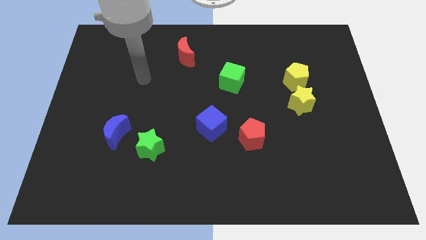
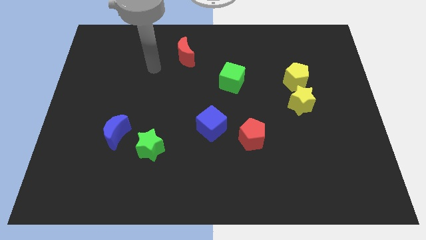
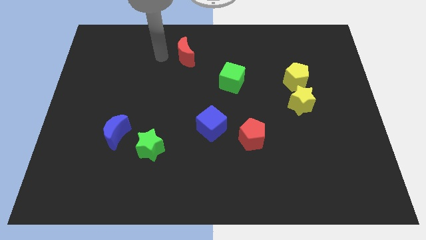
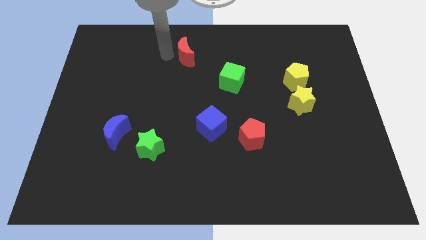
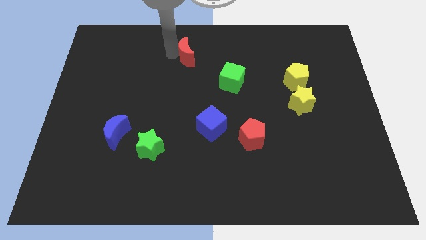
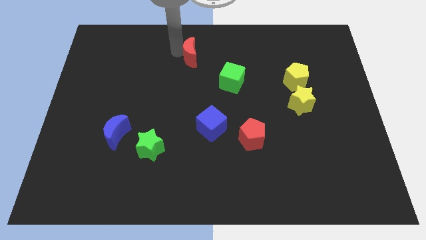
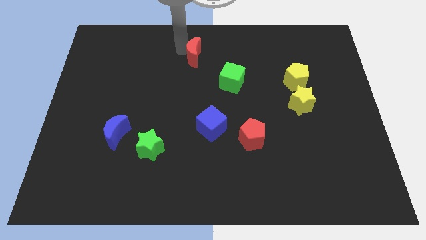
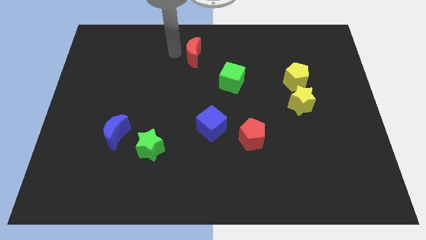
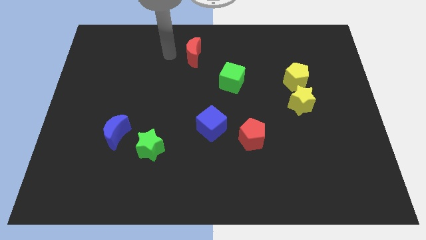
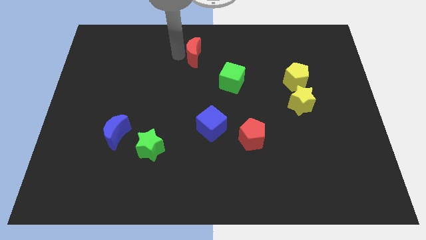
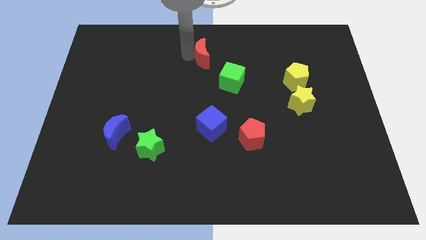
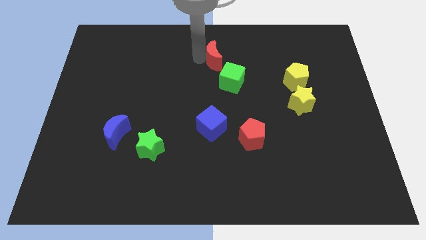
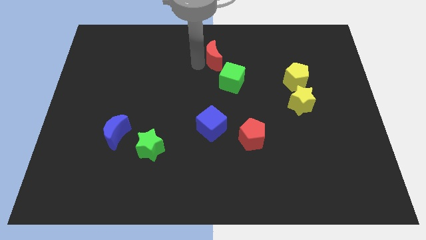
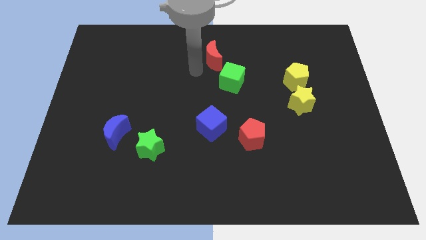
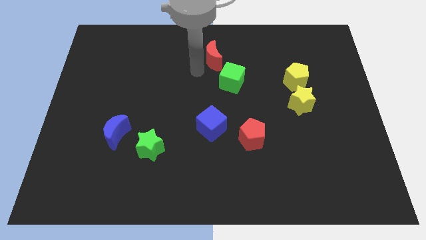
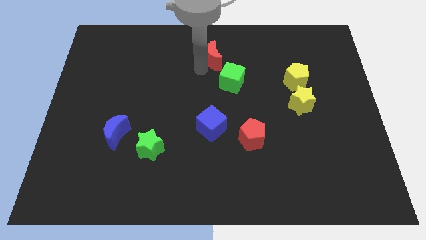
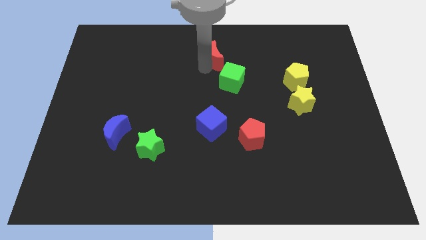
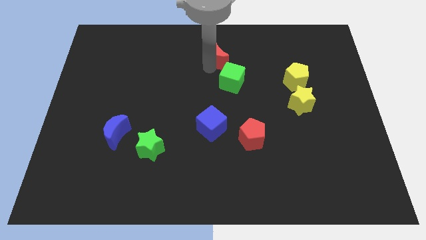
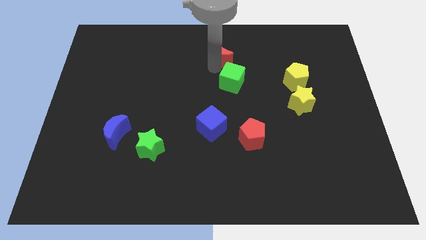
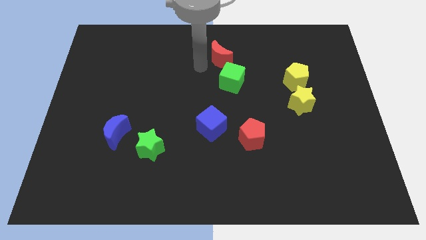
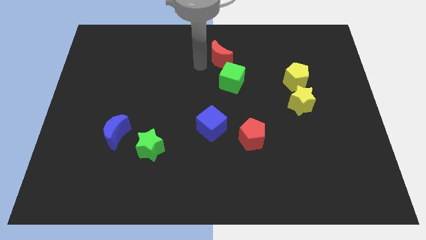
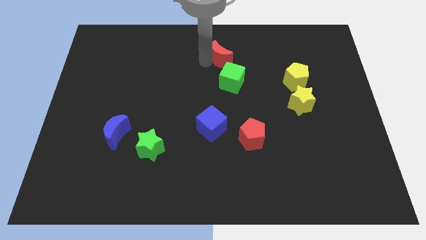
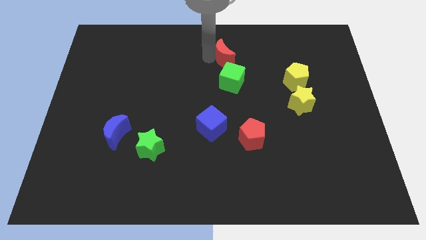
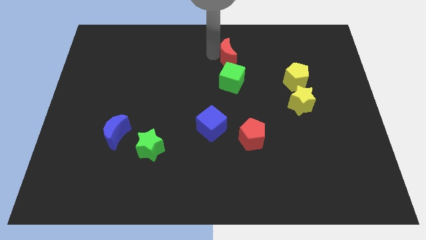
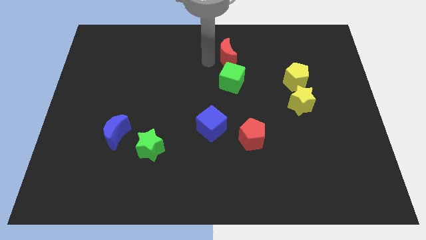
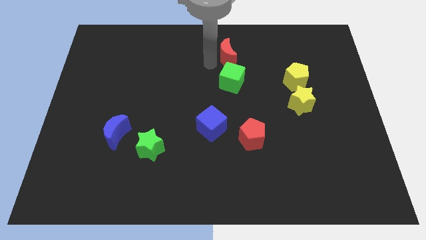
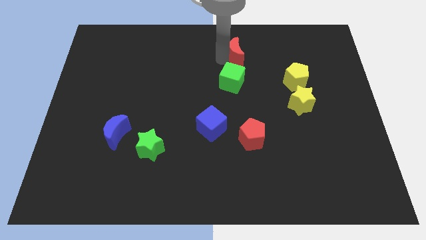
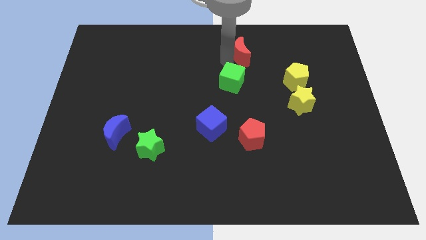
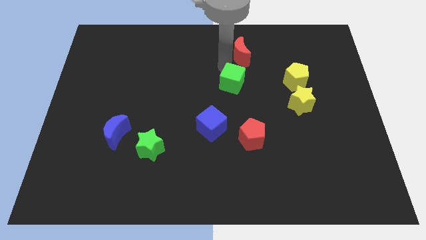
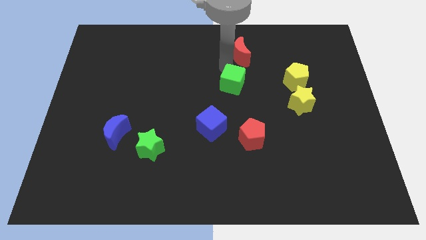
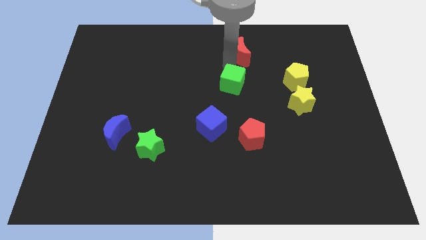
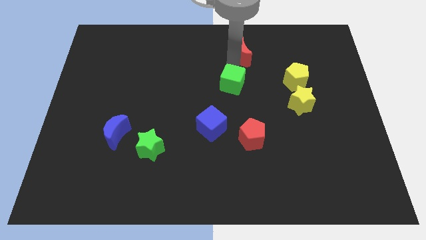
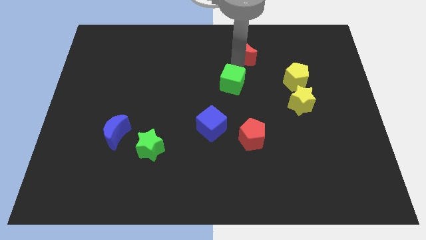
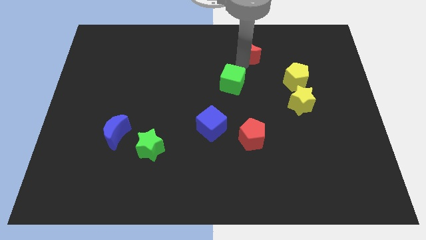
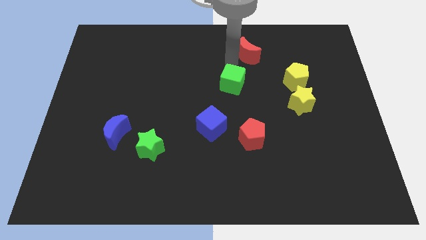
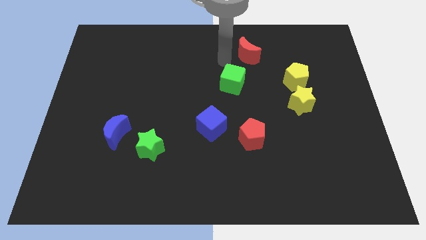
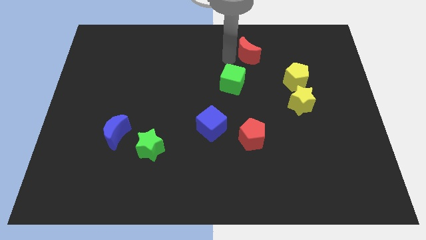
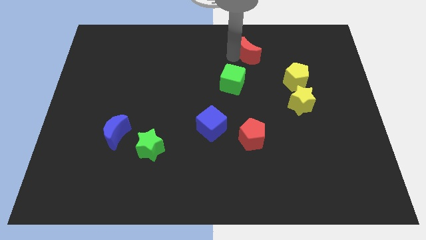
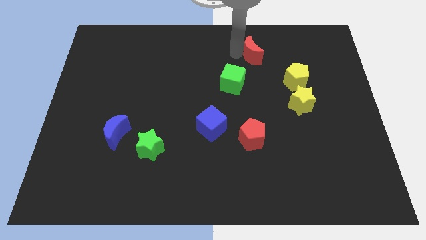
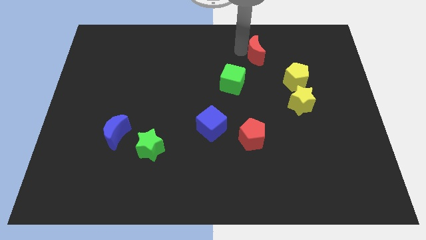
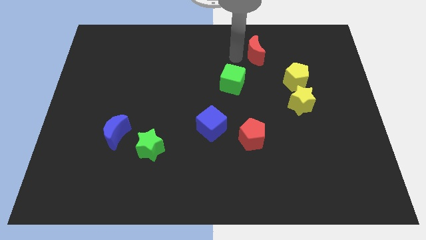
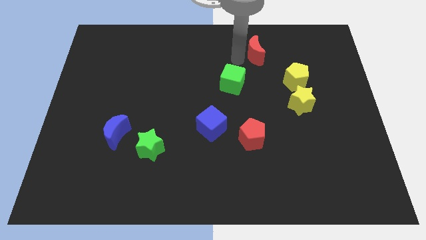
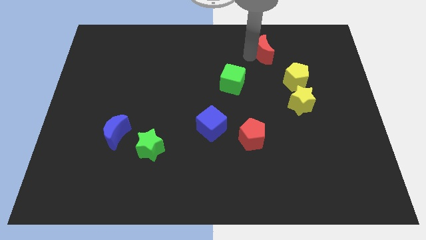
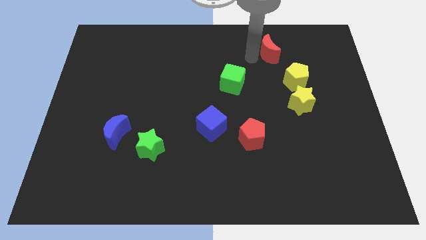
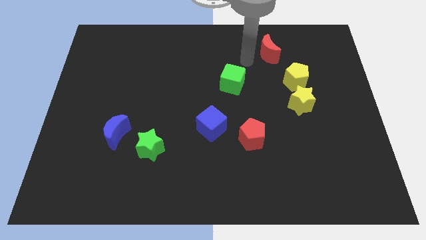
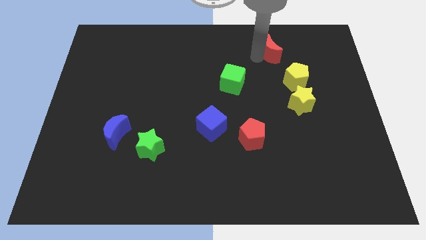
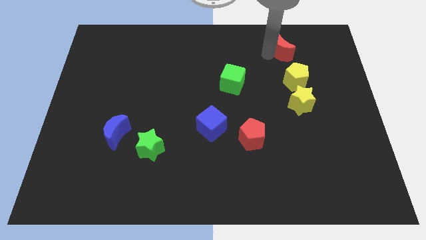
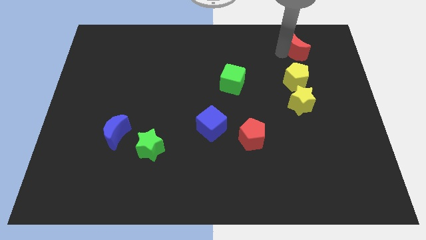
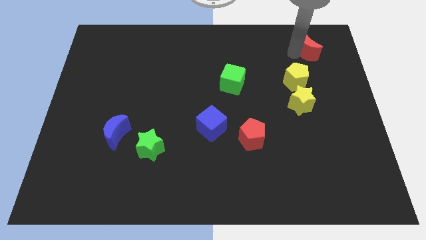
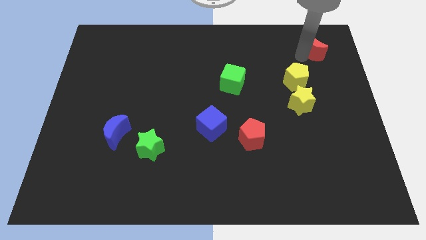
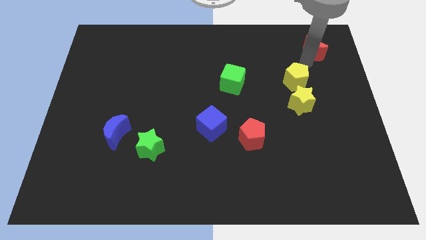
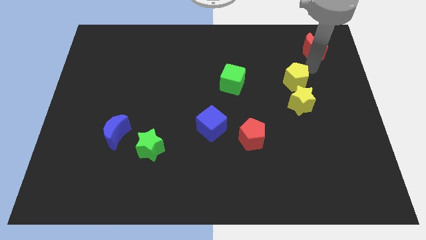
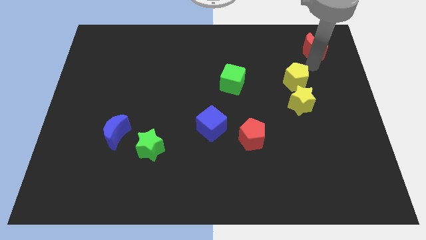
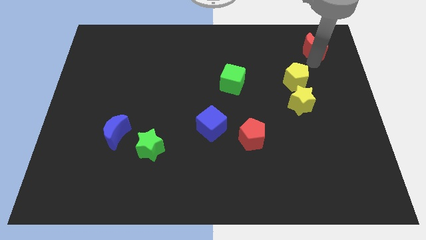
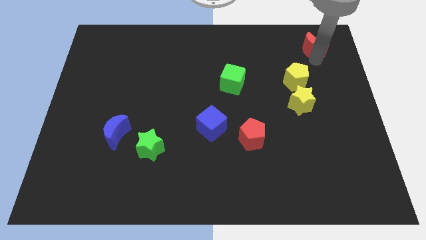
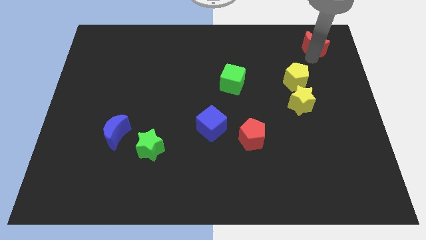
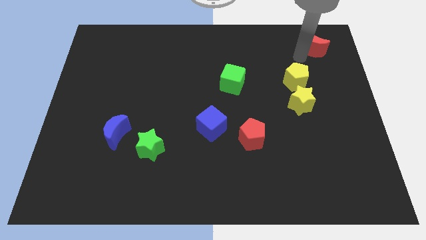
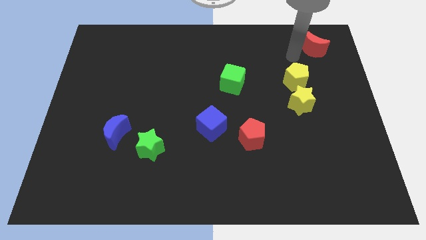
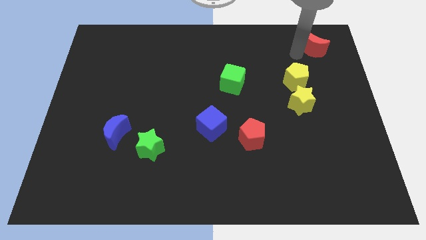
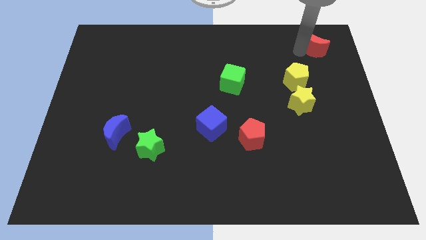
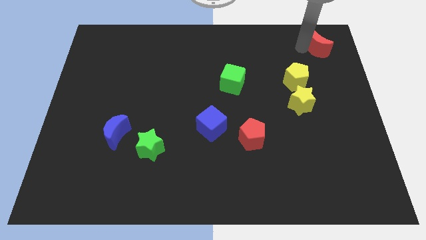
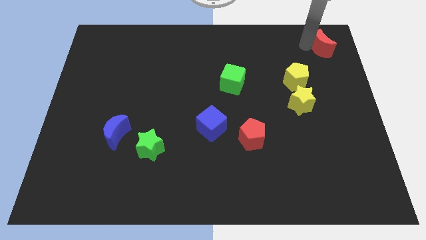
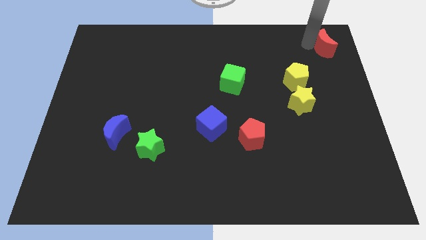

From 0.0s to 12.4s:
slide the red moon to the upper right corner

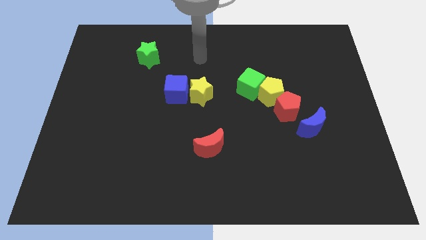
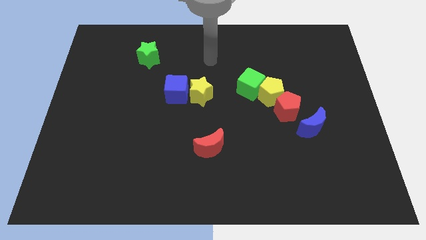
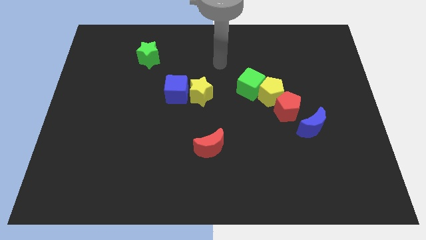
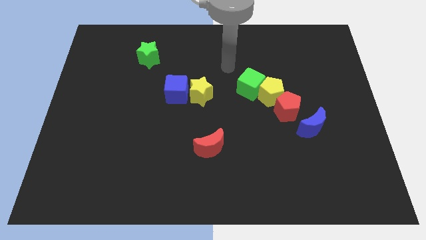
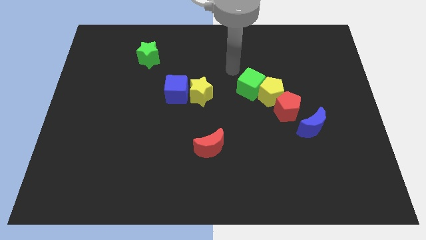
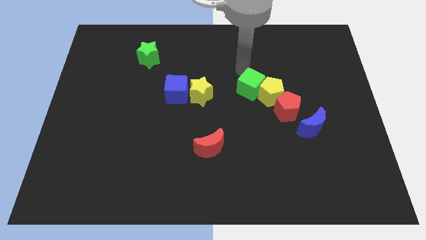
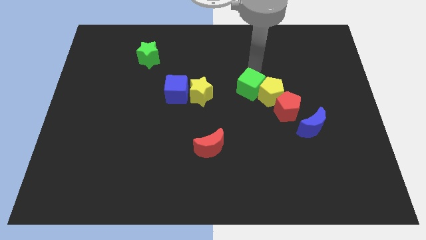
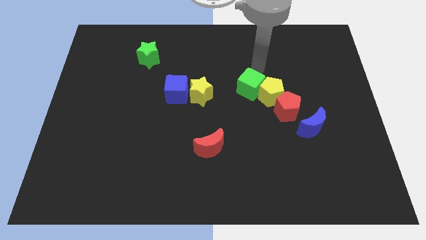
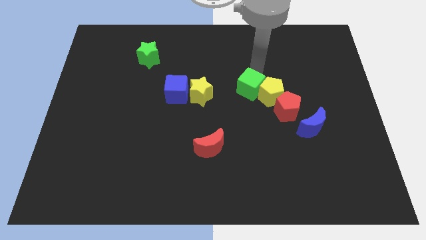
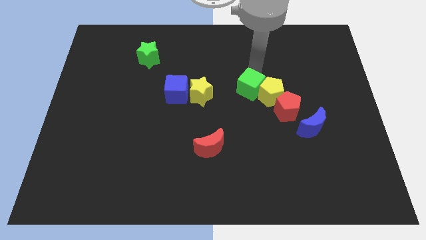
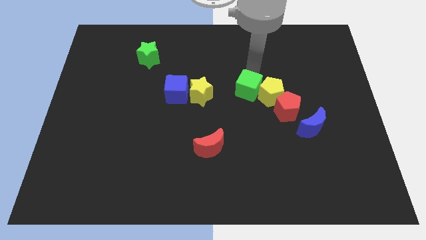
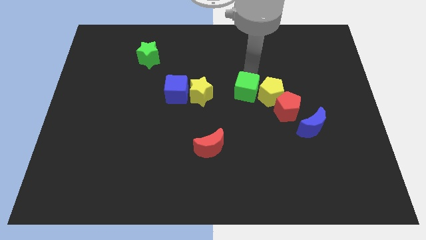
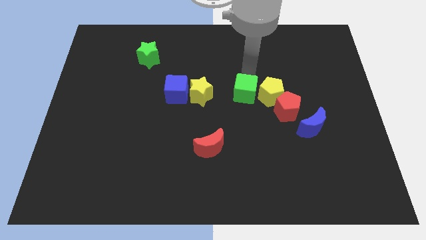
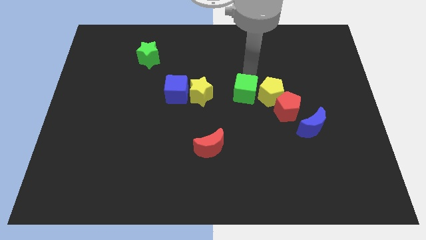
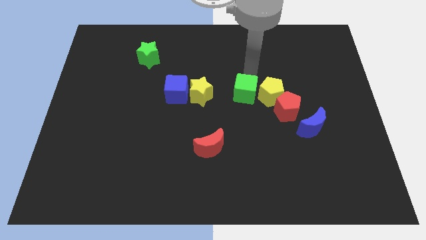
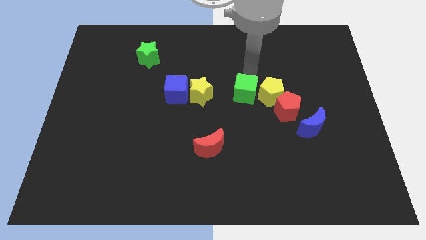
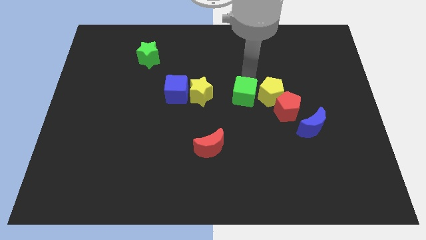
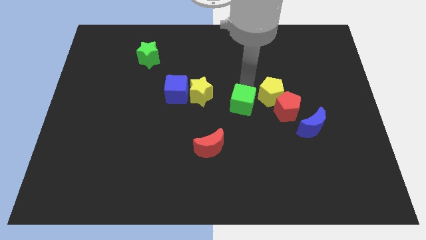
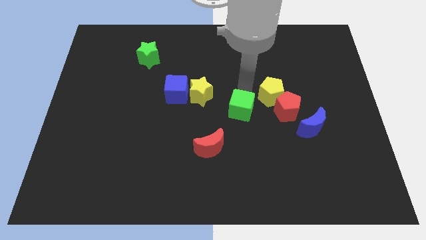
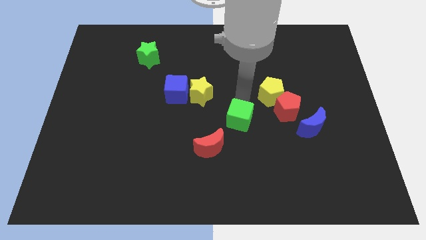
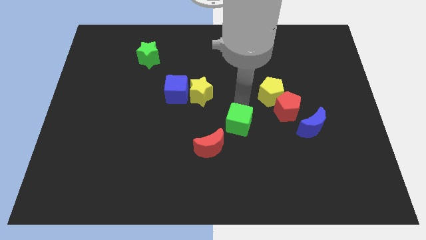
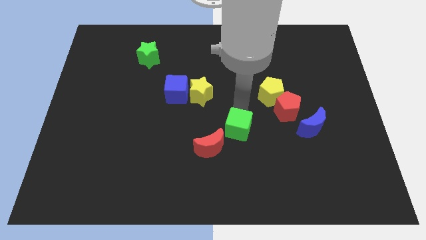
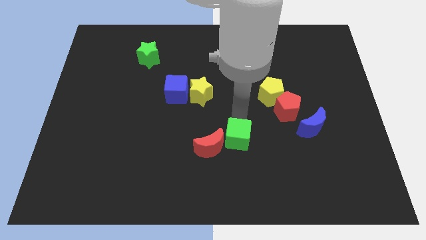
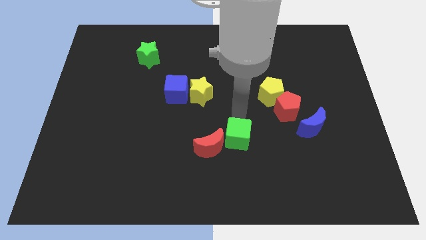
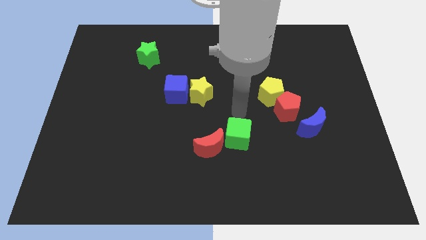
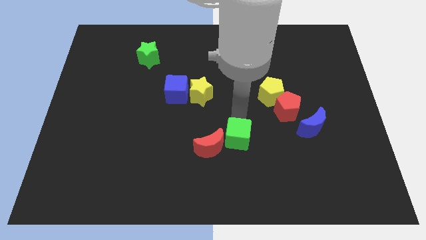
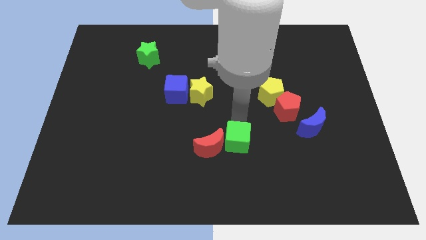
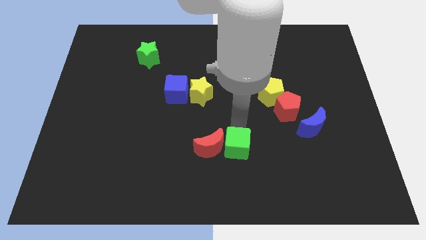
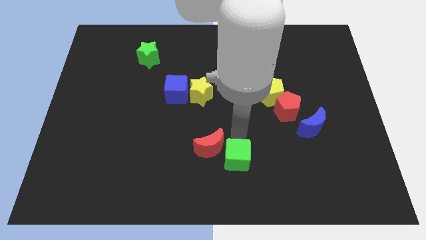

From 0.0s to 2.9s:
push the green cube to the bottom side
